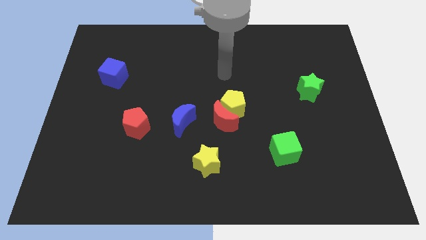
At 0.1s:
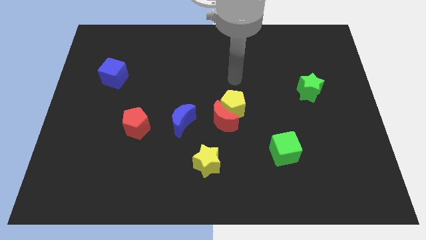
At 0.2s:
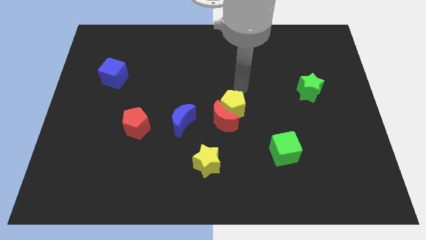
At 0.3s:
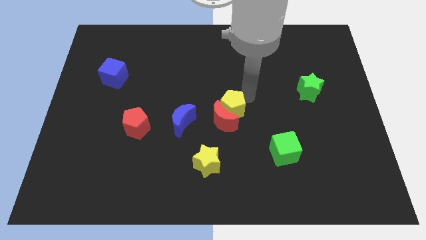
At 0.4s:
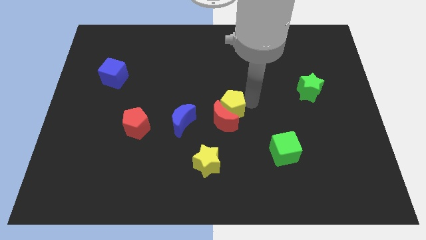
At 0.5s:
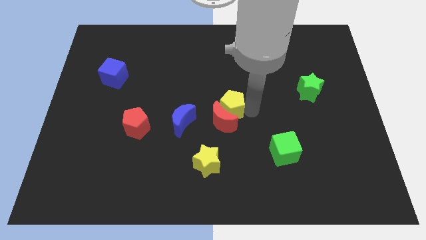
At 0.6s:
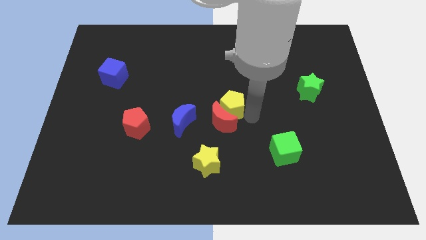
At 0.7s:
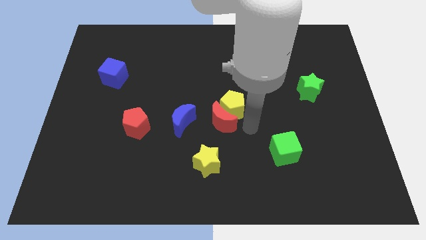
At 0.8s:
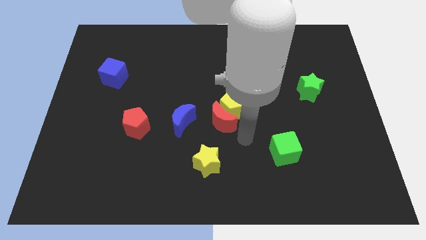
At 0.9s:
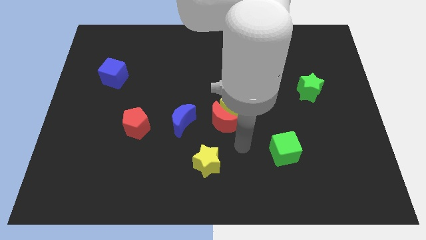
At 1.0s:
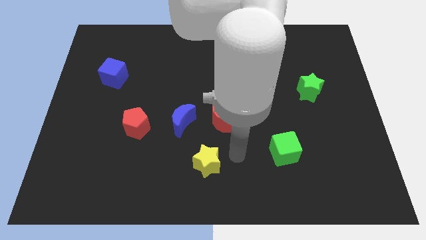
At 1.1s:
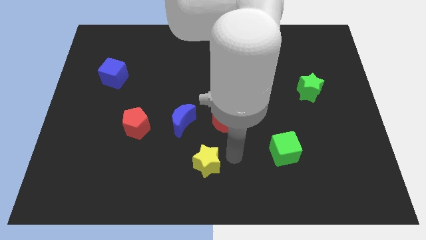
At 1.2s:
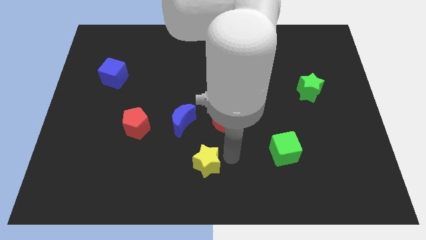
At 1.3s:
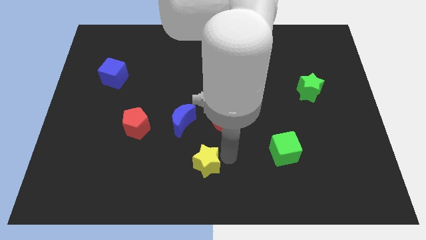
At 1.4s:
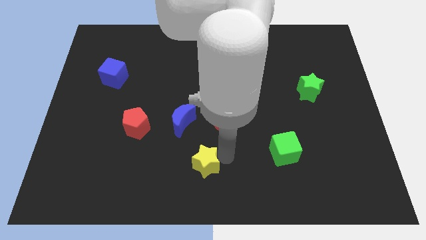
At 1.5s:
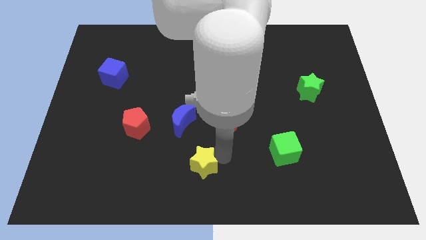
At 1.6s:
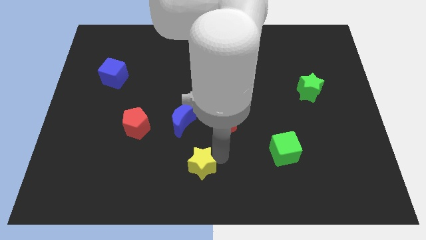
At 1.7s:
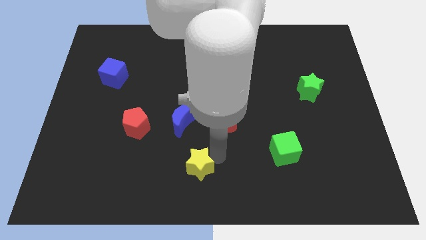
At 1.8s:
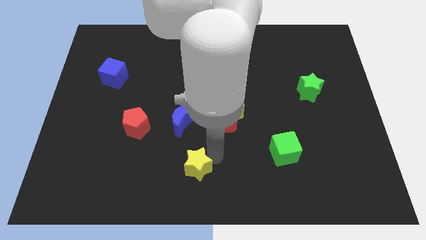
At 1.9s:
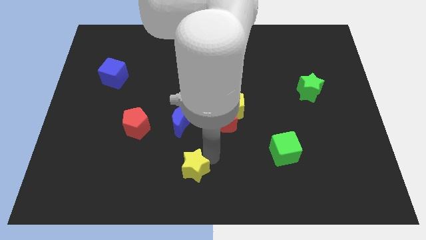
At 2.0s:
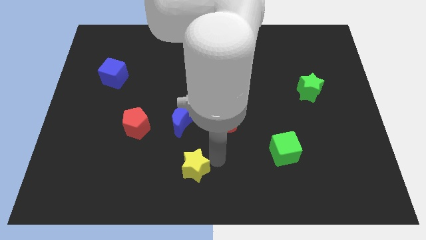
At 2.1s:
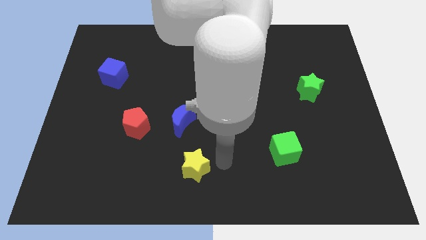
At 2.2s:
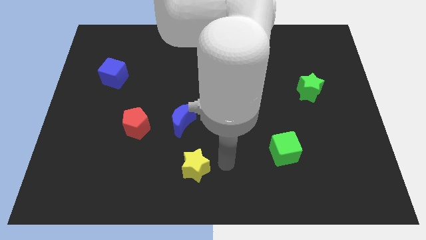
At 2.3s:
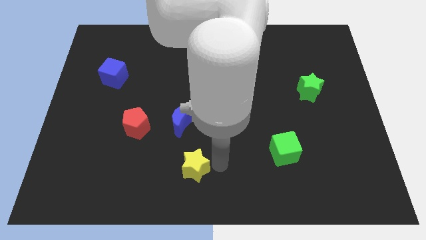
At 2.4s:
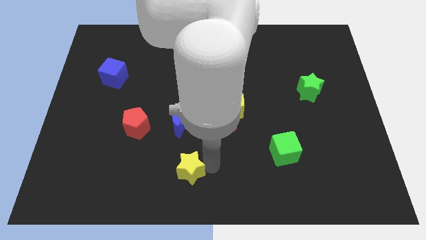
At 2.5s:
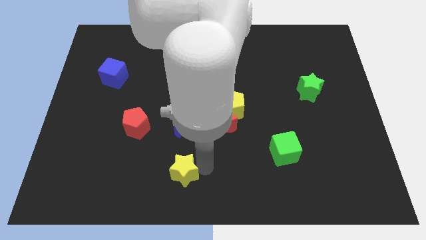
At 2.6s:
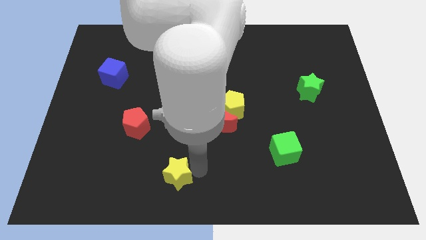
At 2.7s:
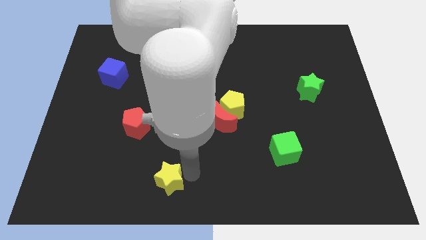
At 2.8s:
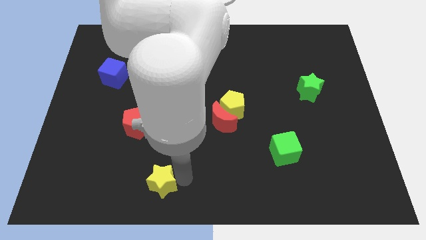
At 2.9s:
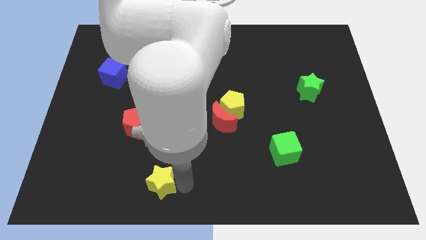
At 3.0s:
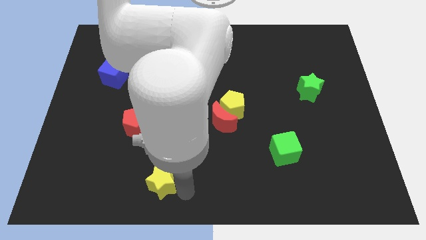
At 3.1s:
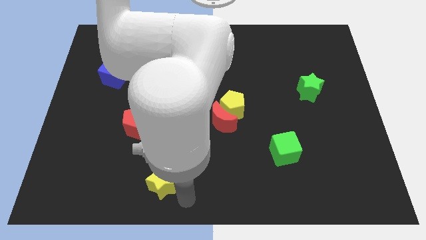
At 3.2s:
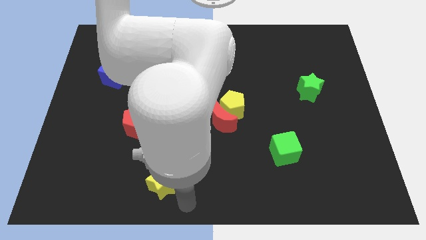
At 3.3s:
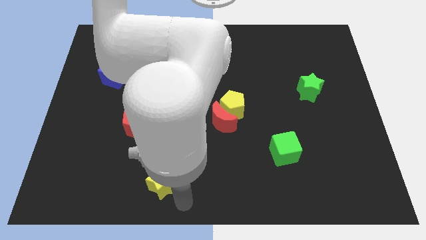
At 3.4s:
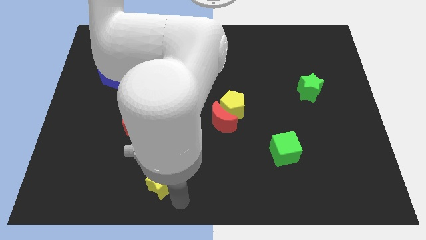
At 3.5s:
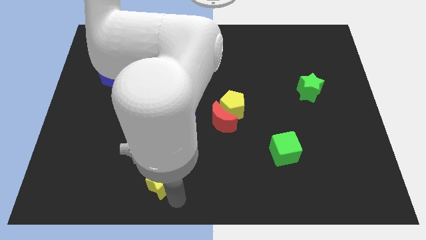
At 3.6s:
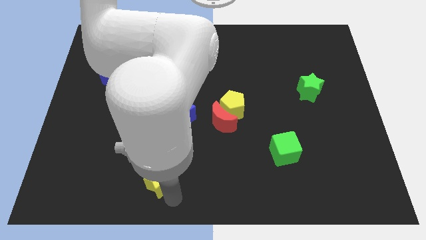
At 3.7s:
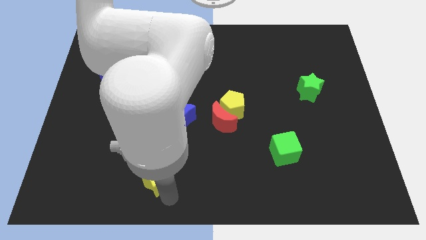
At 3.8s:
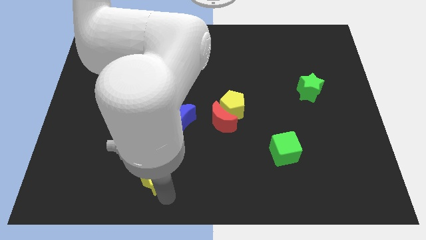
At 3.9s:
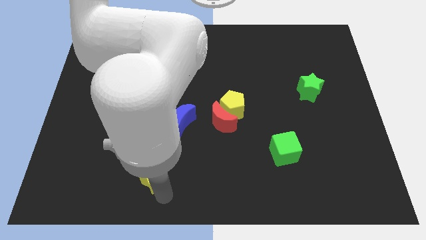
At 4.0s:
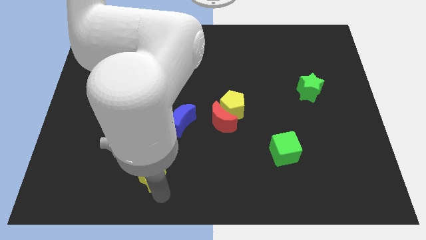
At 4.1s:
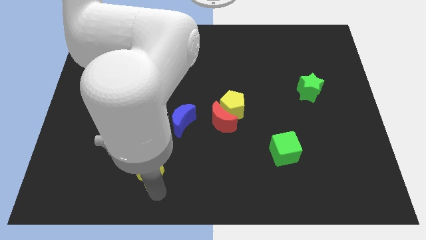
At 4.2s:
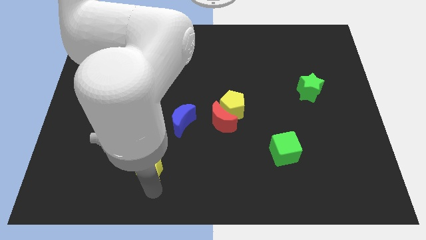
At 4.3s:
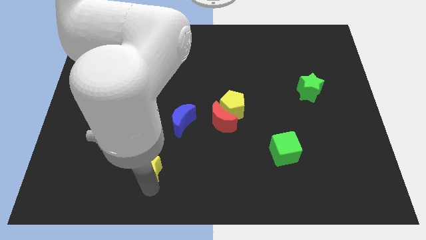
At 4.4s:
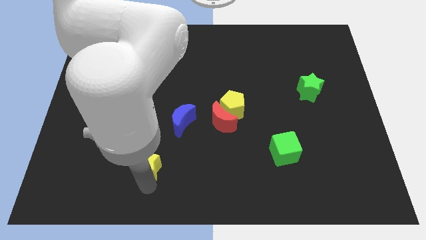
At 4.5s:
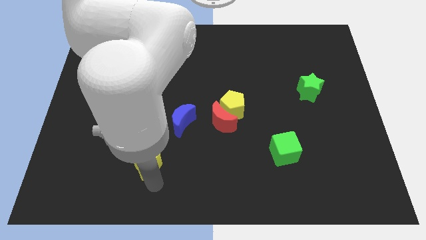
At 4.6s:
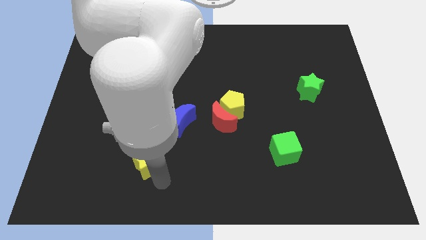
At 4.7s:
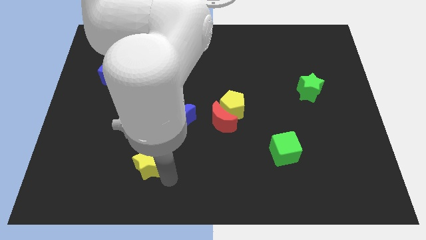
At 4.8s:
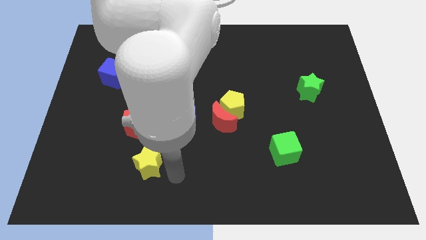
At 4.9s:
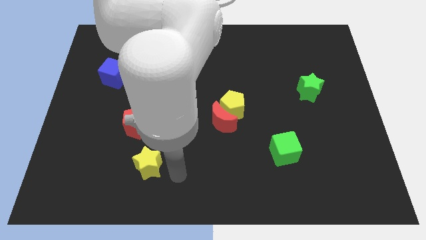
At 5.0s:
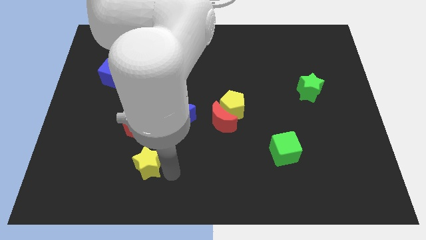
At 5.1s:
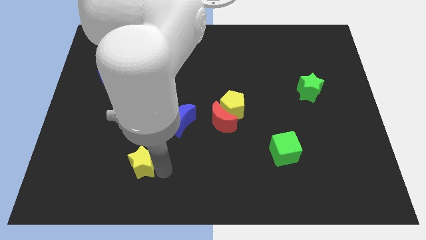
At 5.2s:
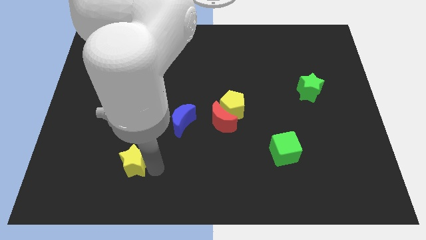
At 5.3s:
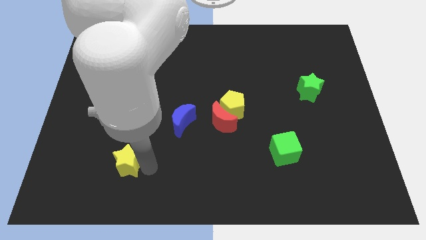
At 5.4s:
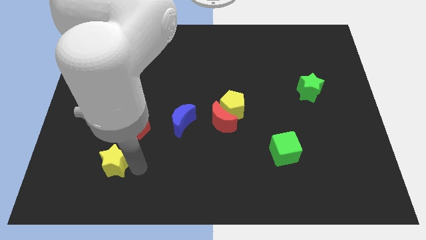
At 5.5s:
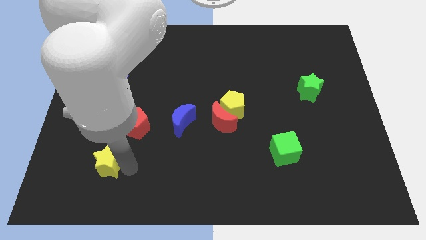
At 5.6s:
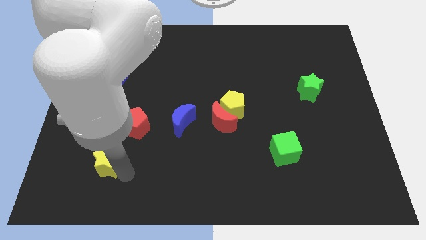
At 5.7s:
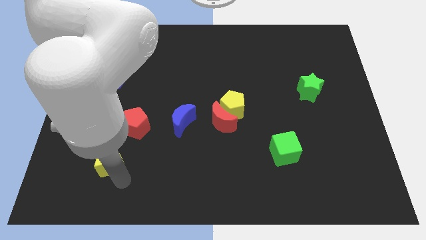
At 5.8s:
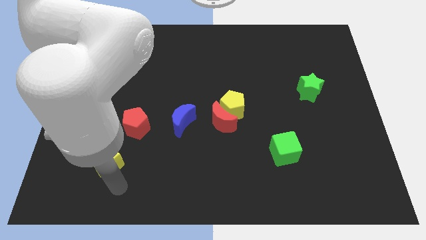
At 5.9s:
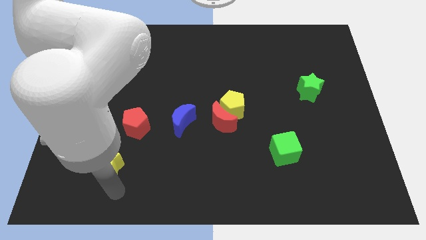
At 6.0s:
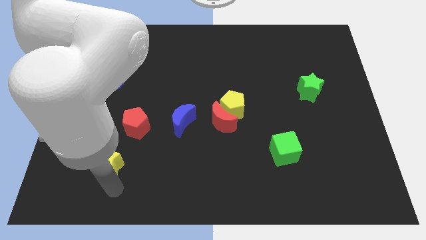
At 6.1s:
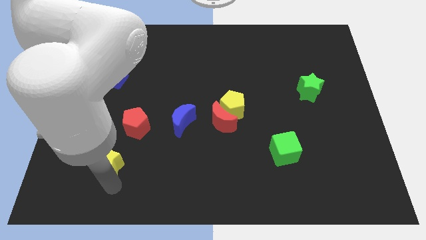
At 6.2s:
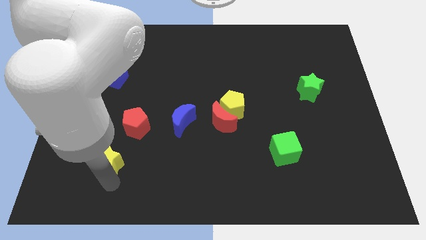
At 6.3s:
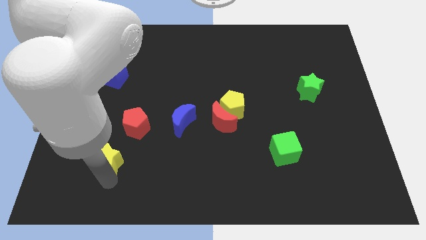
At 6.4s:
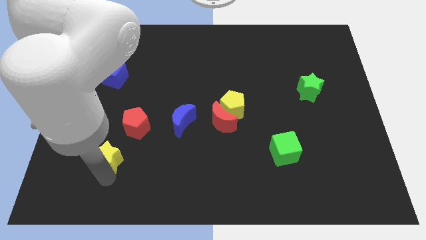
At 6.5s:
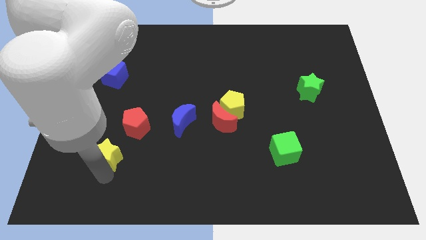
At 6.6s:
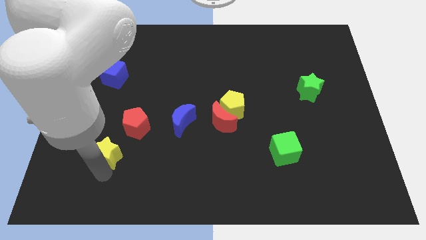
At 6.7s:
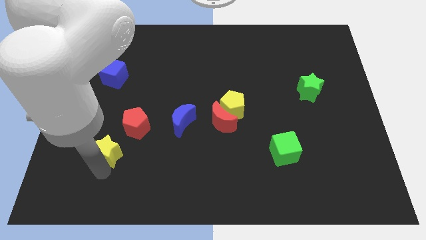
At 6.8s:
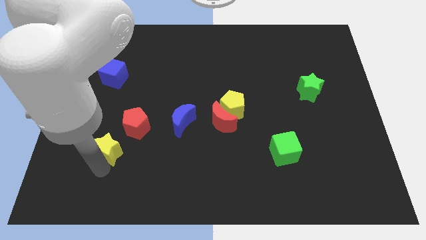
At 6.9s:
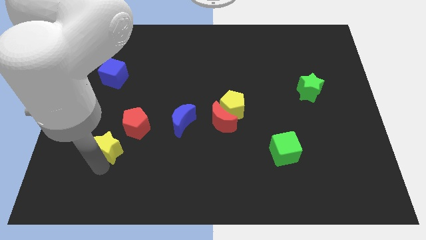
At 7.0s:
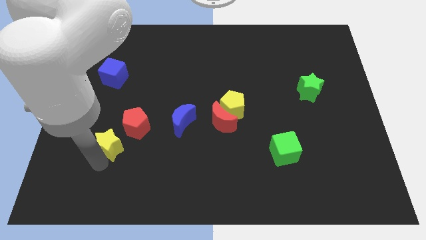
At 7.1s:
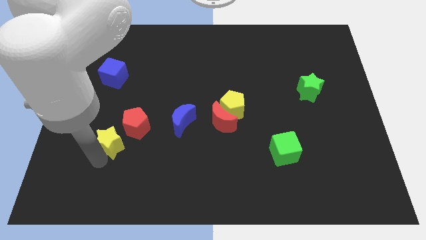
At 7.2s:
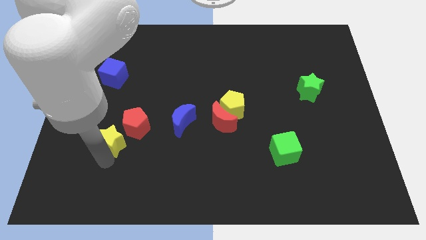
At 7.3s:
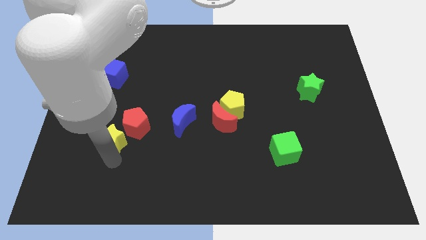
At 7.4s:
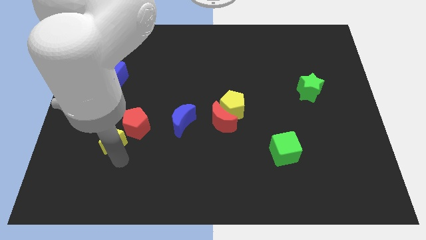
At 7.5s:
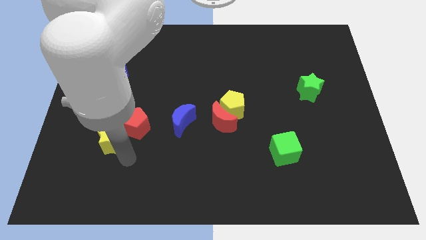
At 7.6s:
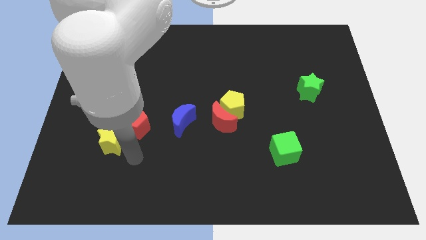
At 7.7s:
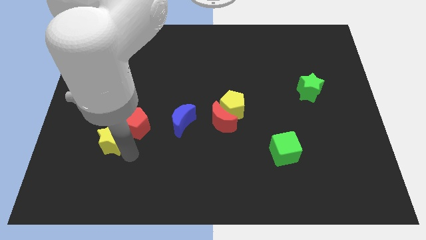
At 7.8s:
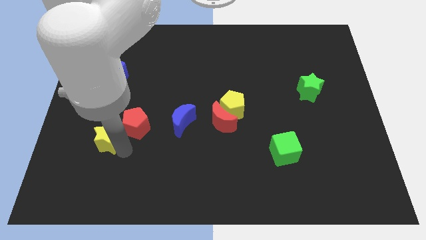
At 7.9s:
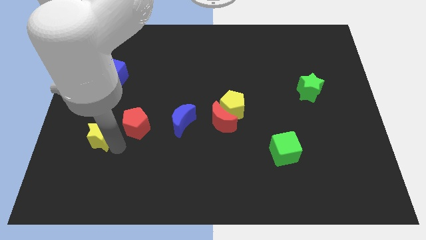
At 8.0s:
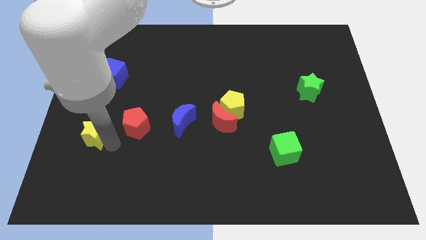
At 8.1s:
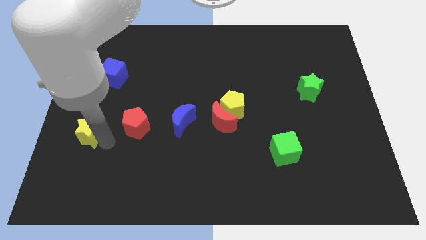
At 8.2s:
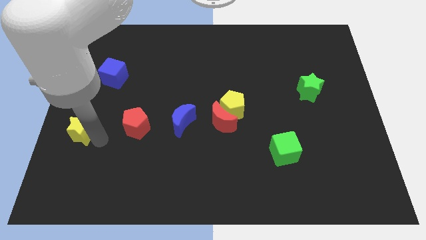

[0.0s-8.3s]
push the yellow star to the left side of the board
